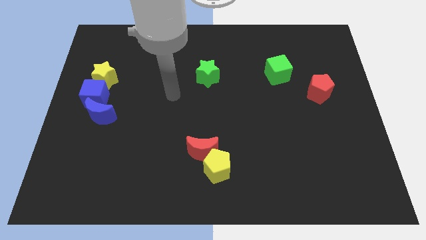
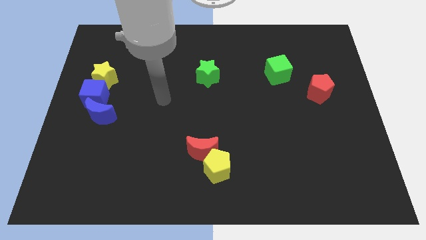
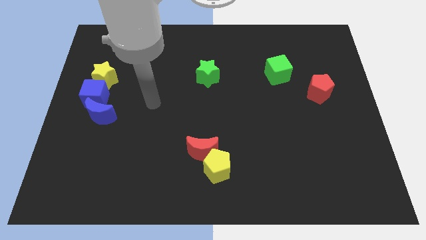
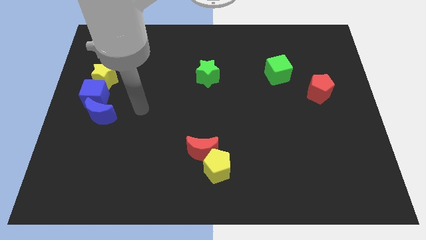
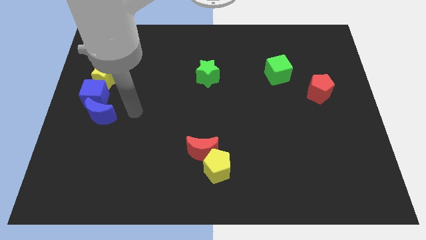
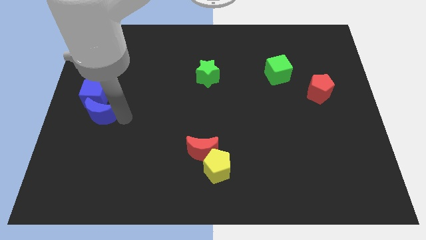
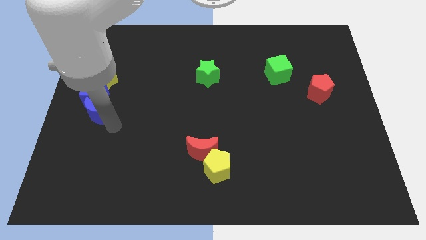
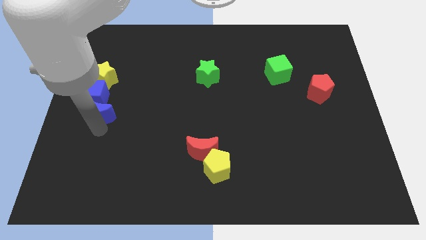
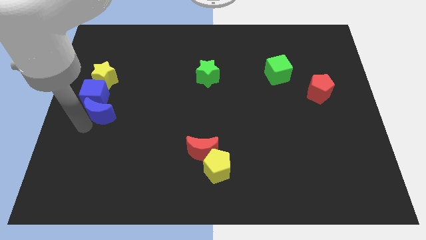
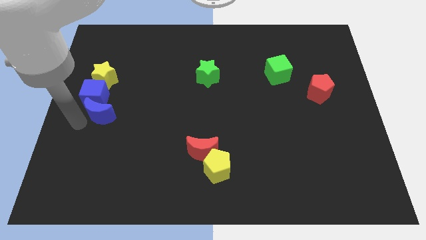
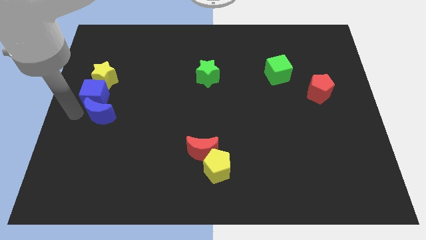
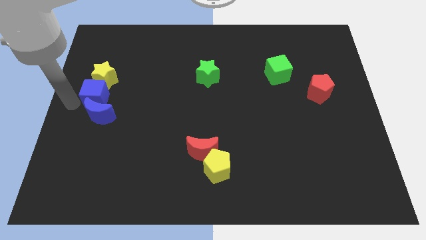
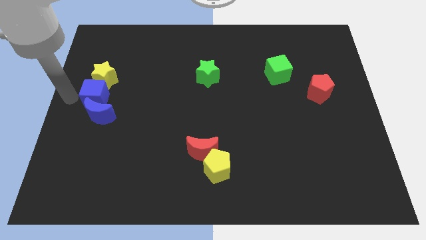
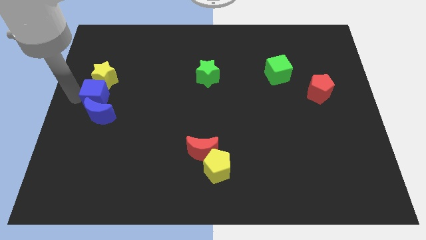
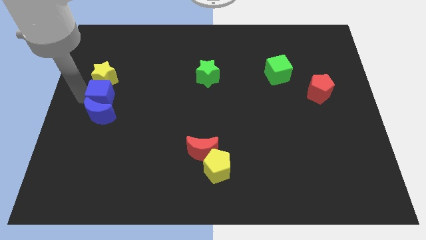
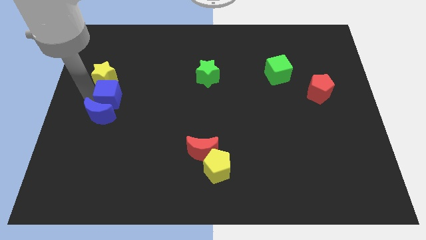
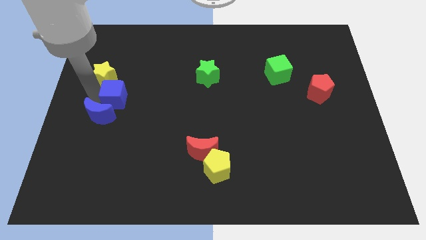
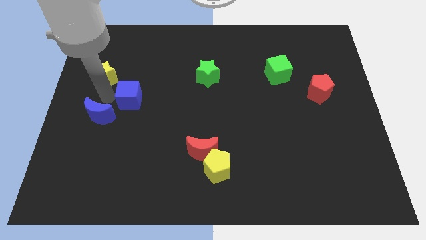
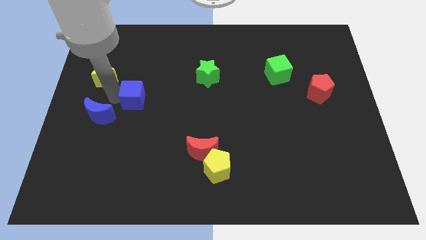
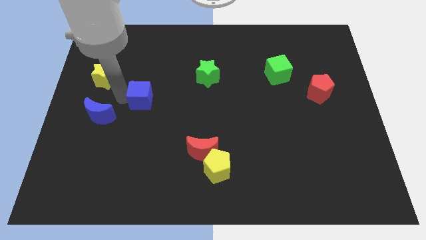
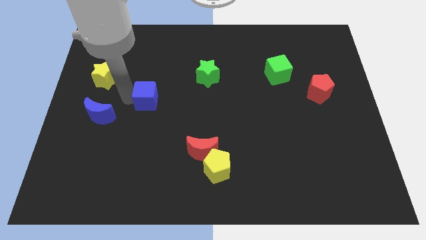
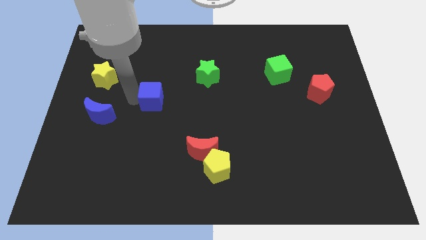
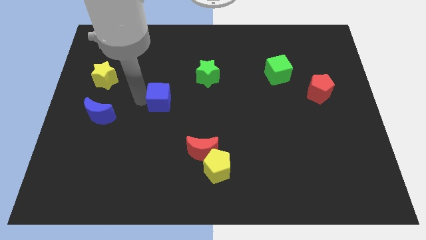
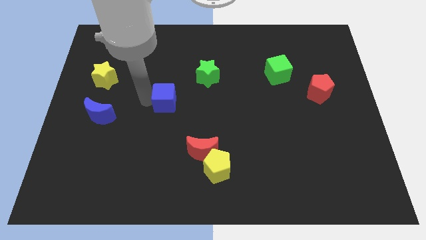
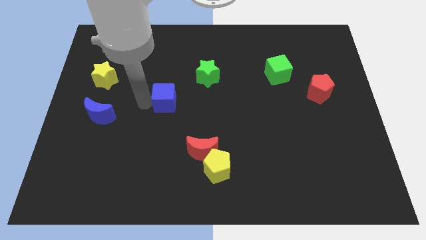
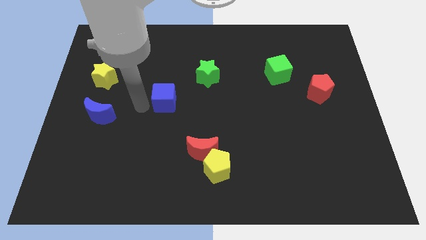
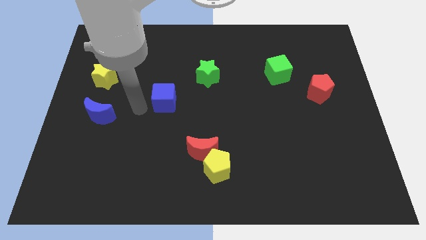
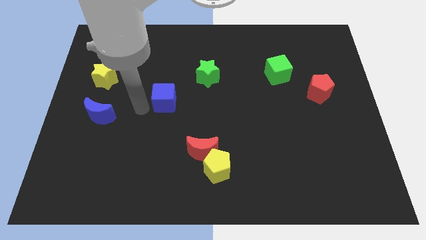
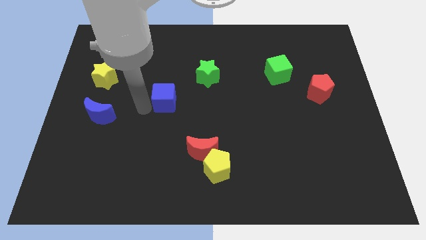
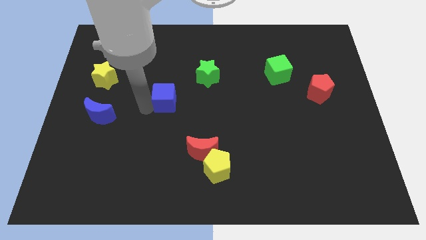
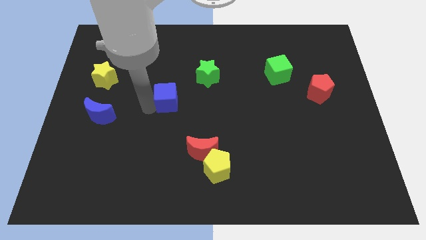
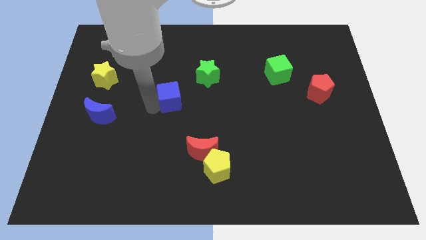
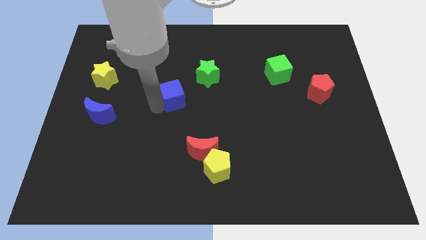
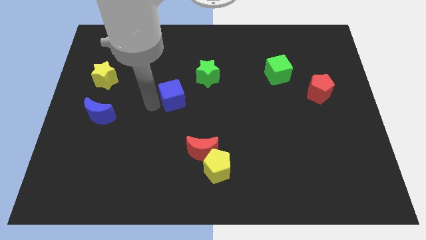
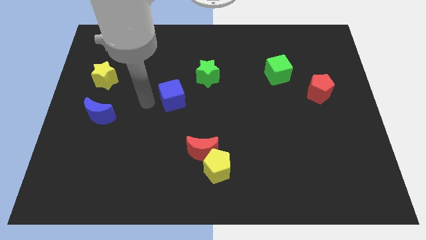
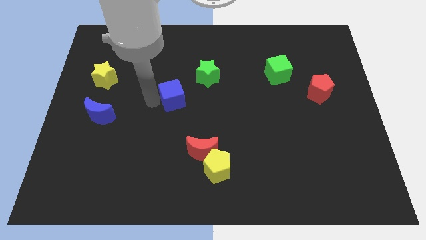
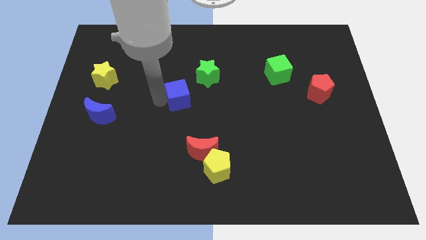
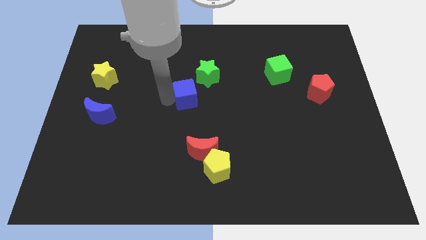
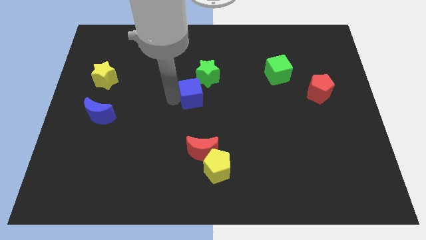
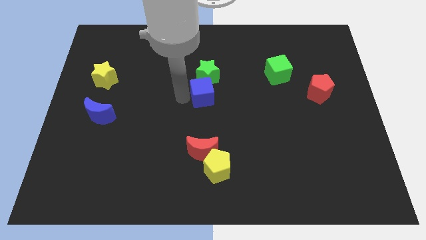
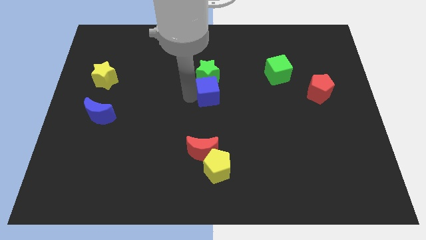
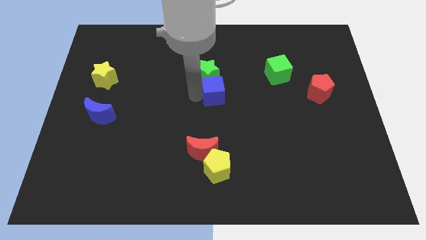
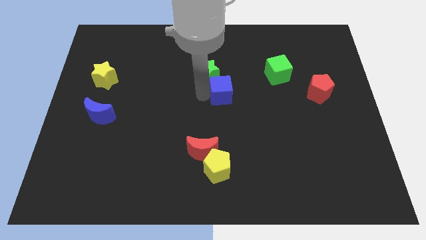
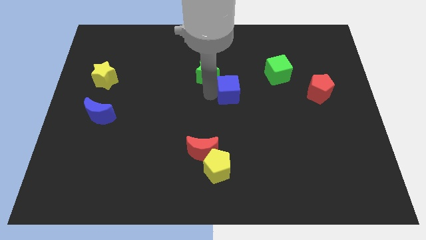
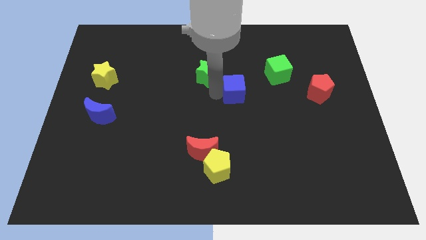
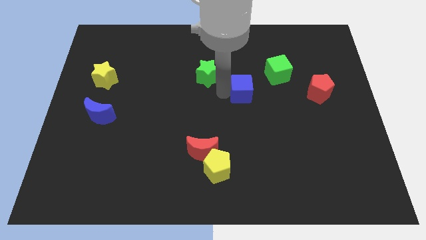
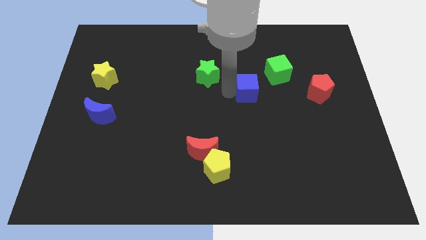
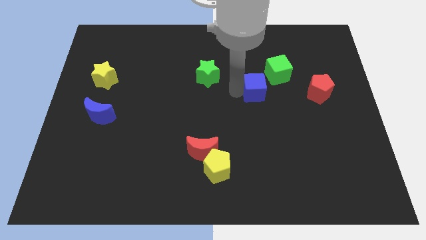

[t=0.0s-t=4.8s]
push the blue cube left of the red pentagon

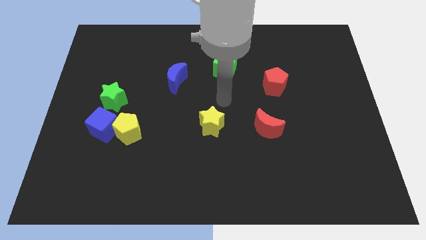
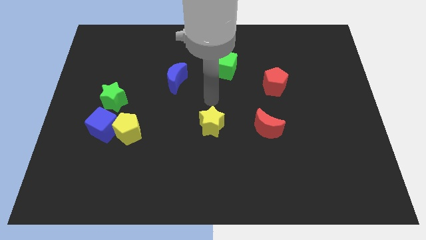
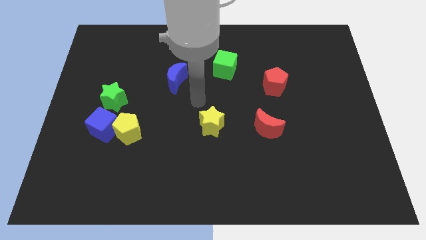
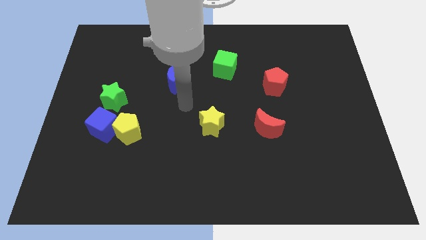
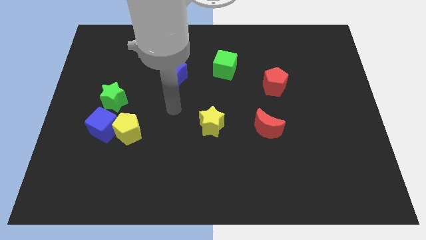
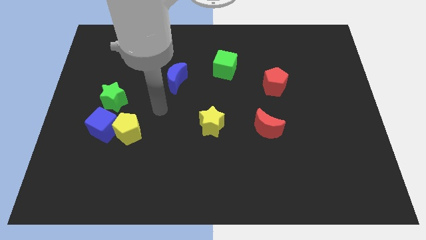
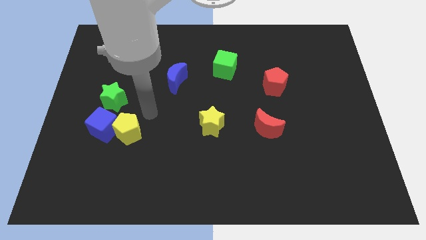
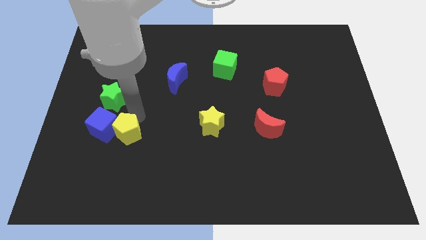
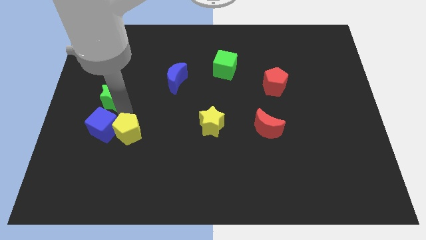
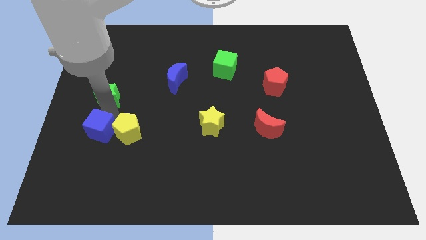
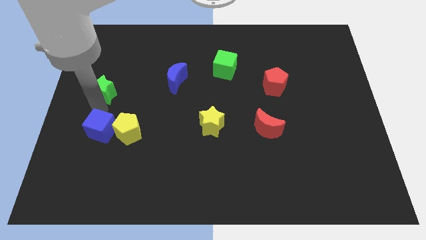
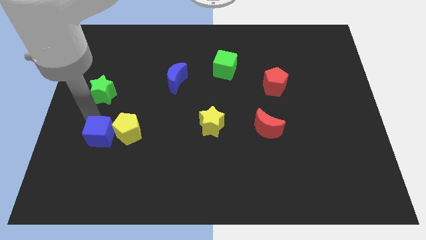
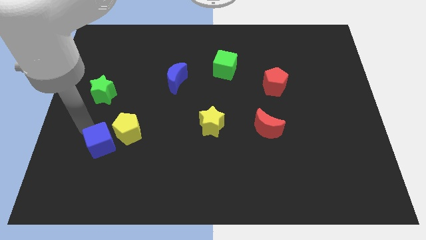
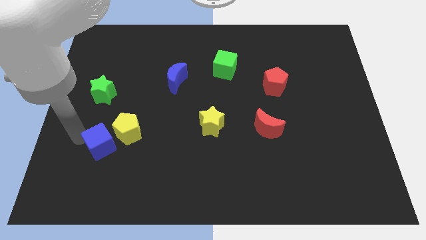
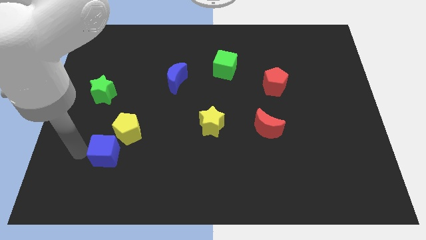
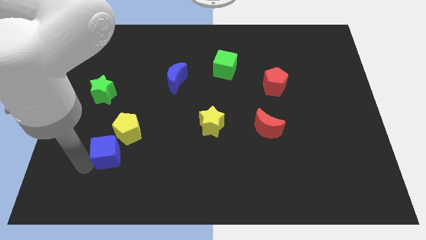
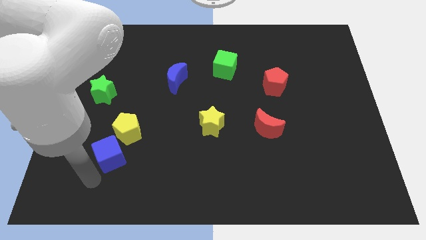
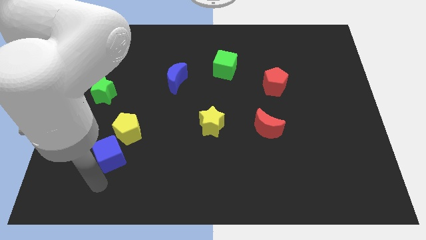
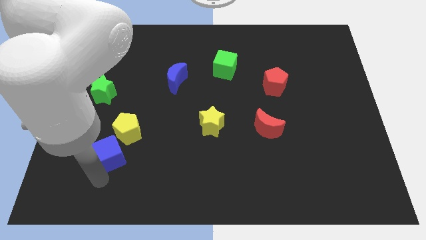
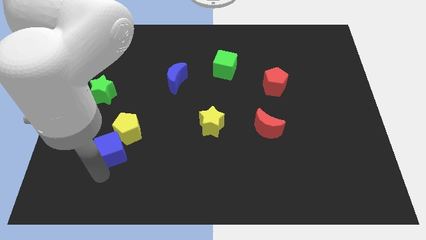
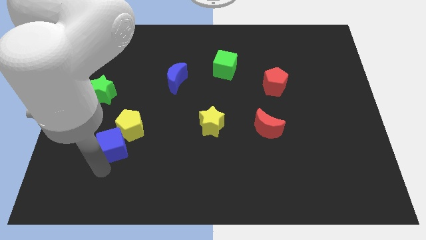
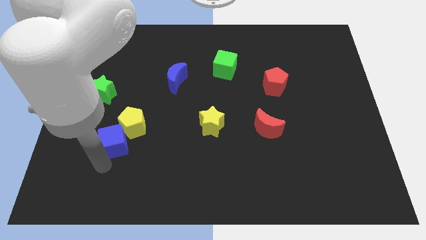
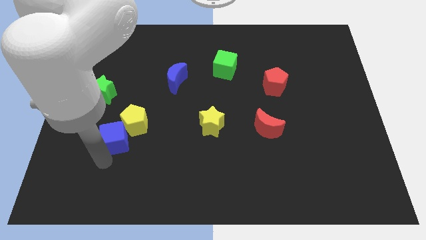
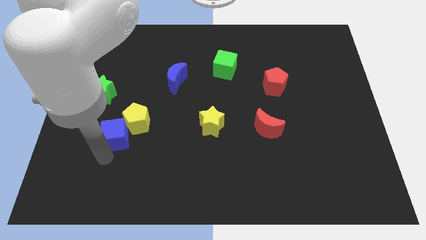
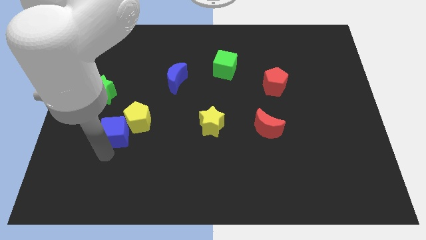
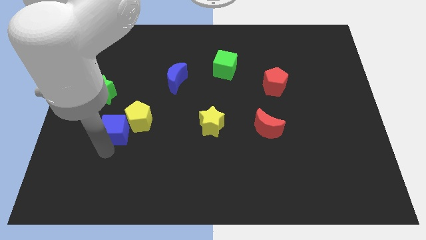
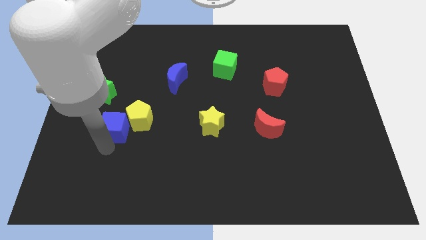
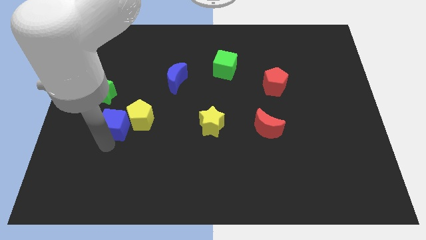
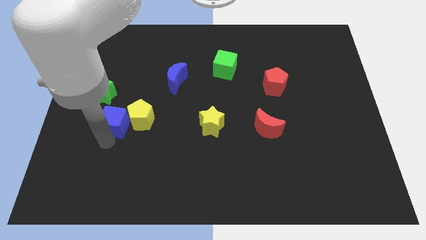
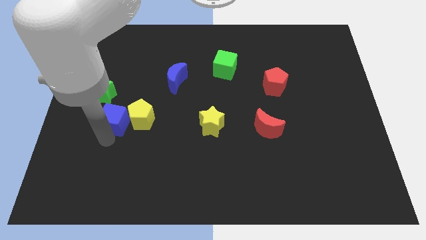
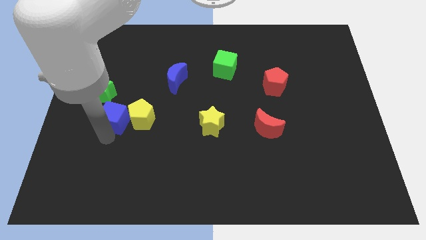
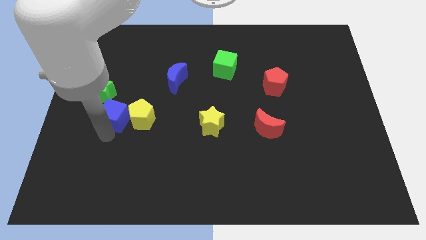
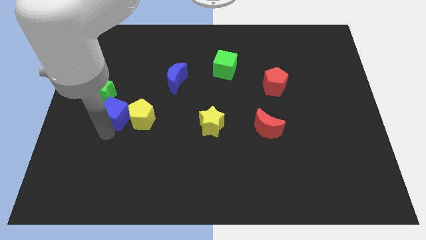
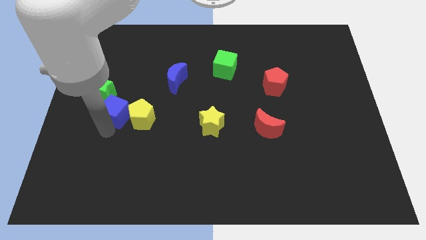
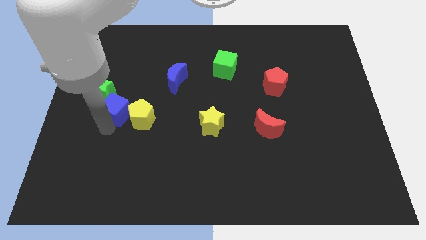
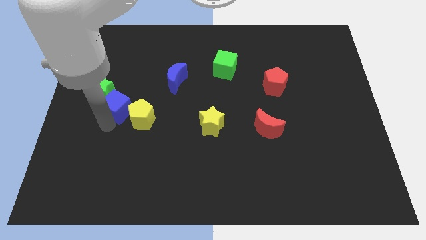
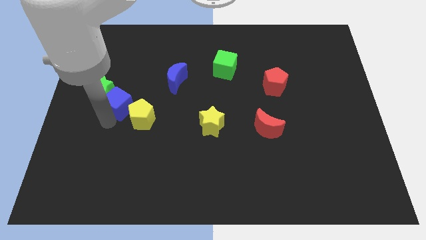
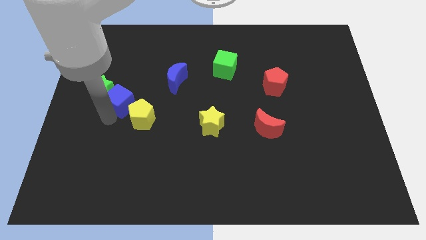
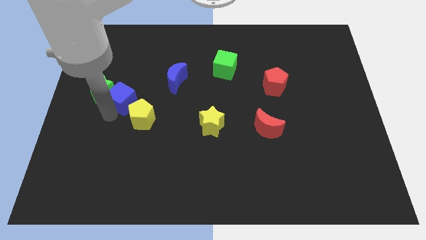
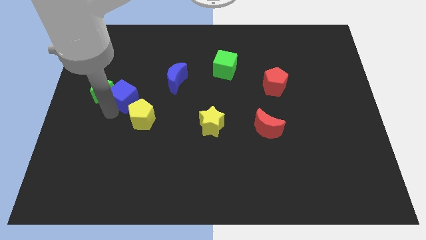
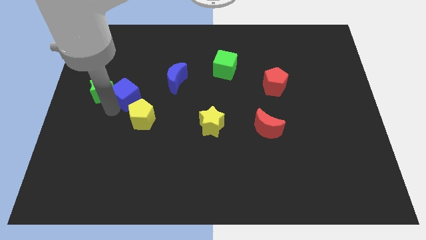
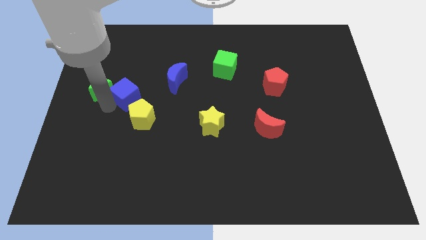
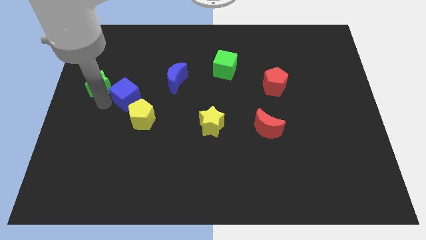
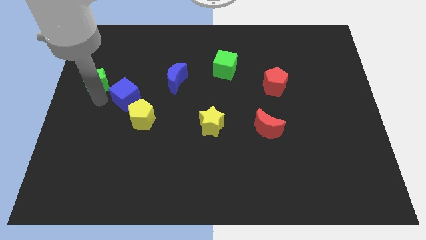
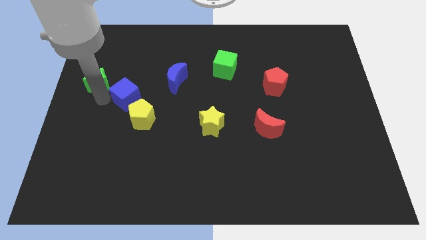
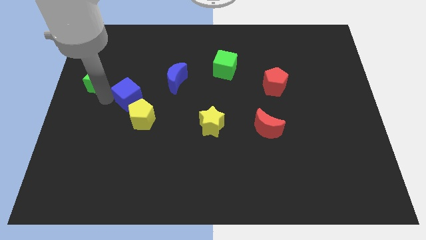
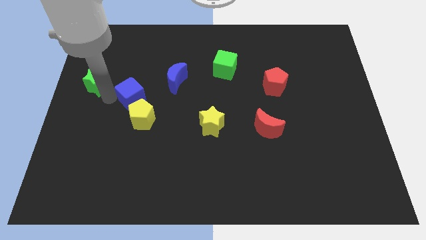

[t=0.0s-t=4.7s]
put the blue cube diagonally down and to the left of the blue moon
